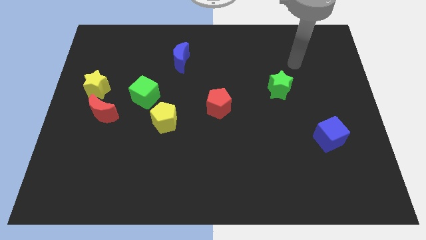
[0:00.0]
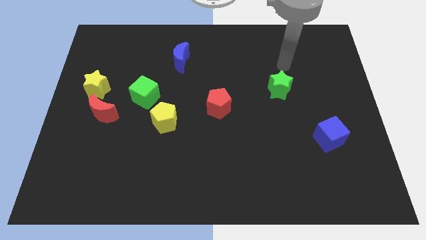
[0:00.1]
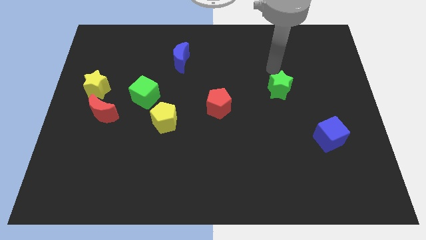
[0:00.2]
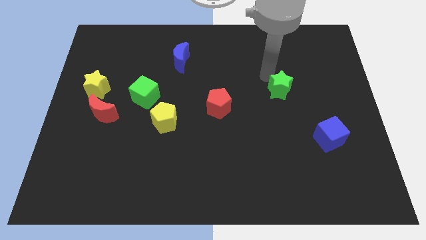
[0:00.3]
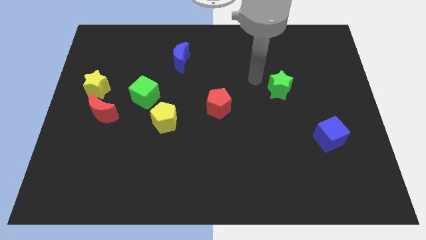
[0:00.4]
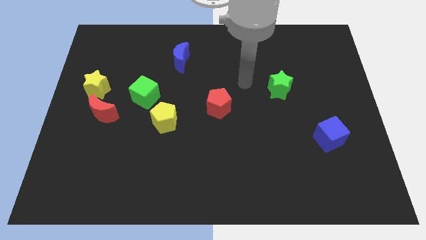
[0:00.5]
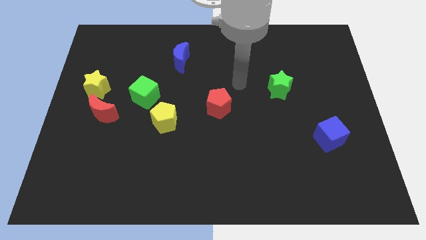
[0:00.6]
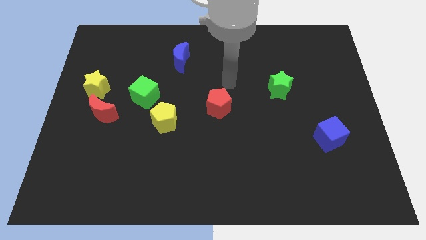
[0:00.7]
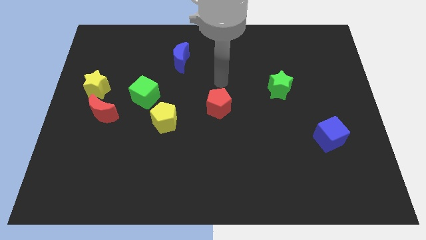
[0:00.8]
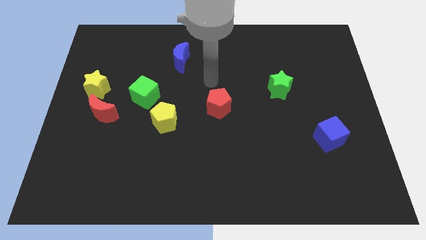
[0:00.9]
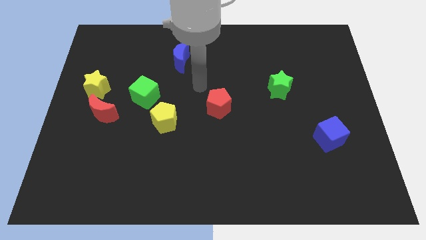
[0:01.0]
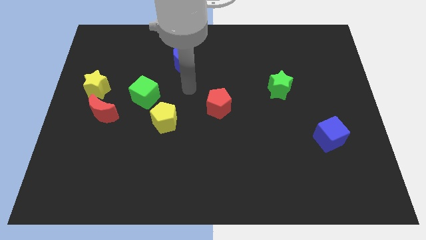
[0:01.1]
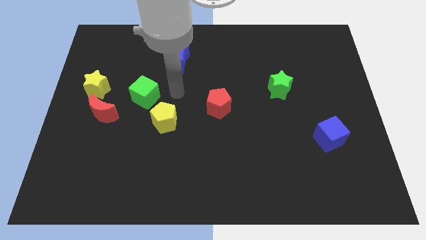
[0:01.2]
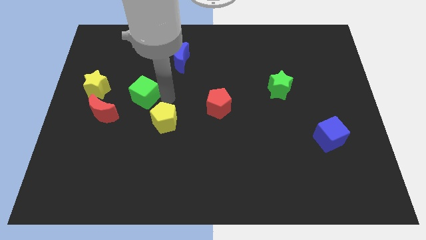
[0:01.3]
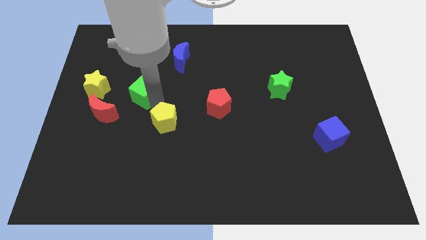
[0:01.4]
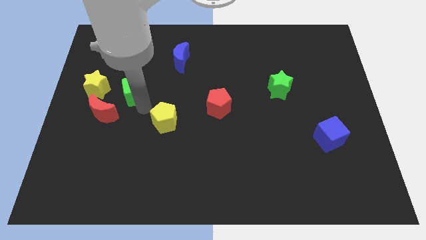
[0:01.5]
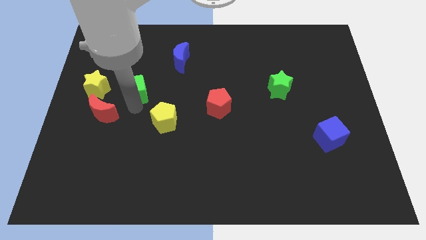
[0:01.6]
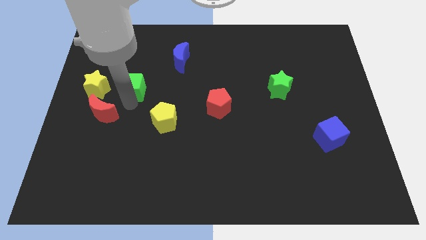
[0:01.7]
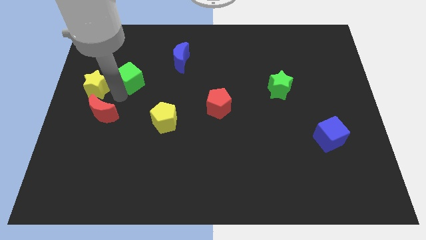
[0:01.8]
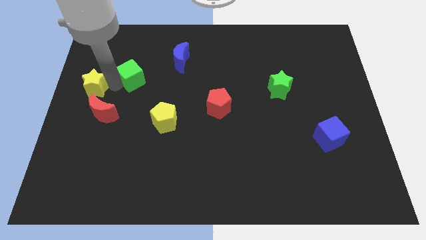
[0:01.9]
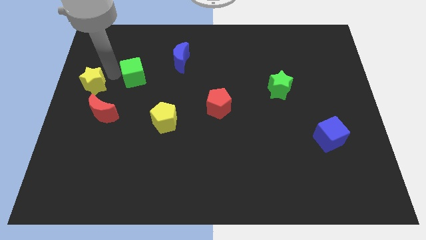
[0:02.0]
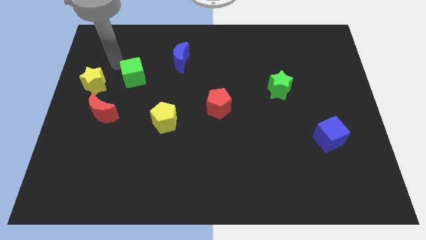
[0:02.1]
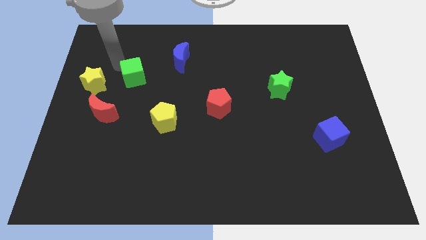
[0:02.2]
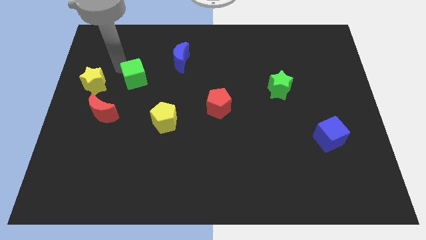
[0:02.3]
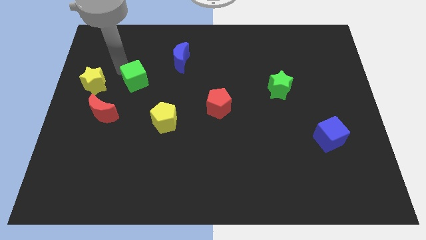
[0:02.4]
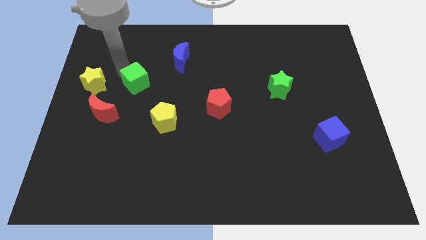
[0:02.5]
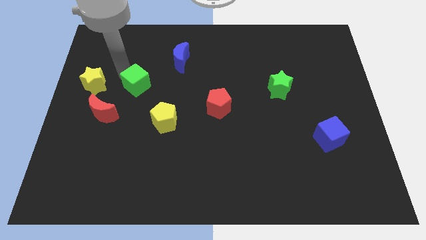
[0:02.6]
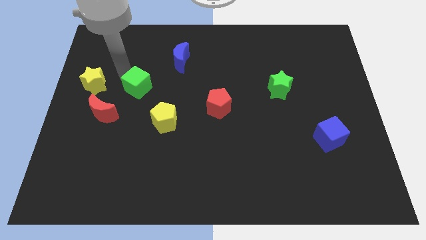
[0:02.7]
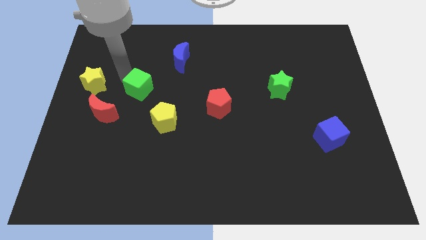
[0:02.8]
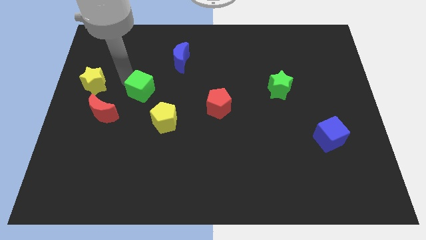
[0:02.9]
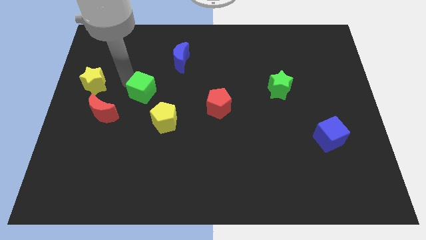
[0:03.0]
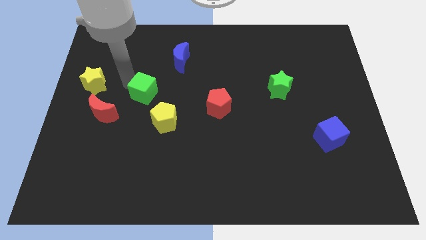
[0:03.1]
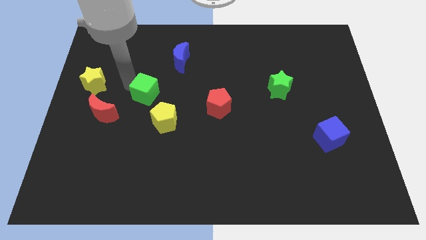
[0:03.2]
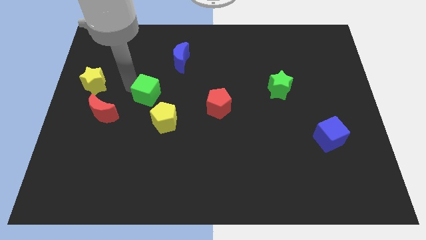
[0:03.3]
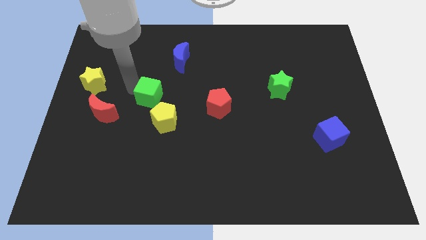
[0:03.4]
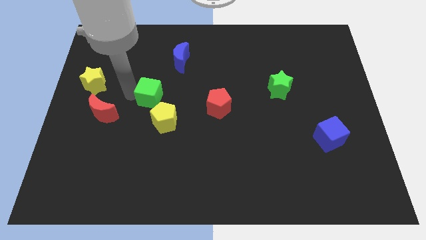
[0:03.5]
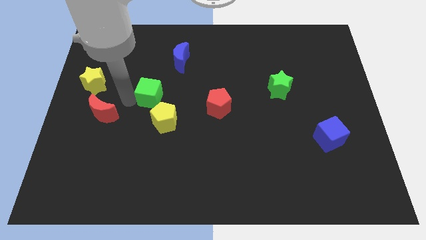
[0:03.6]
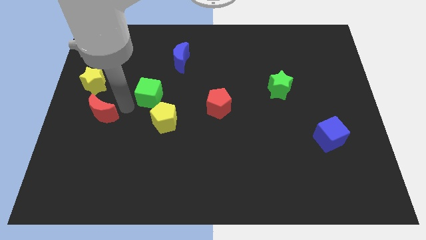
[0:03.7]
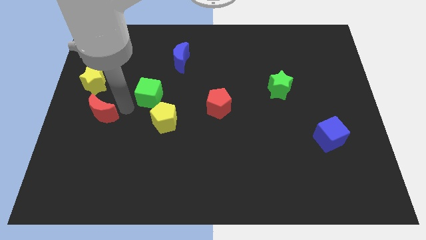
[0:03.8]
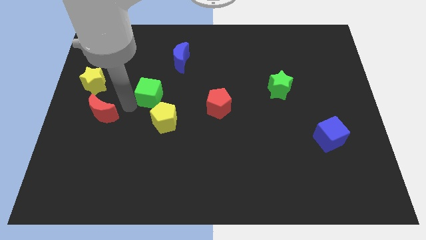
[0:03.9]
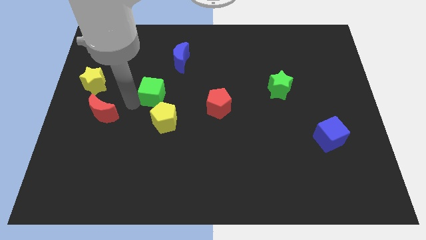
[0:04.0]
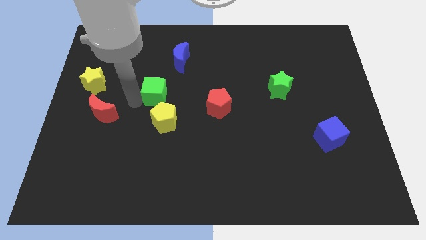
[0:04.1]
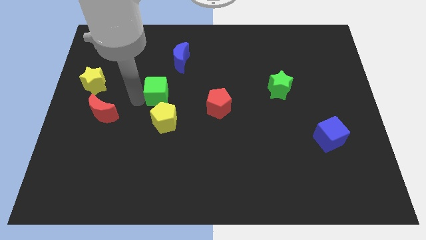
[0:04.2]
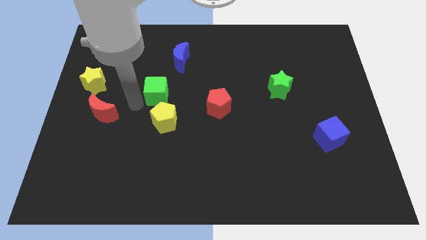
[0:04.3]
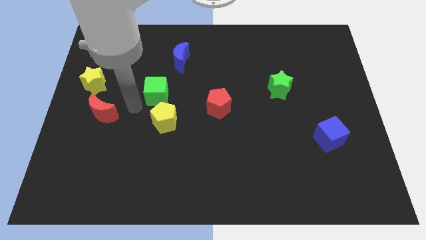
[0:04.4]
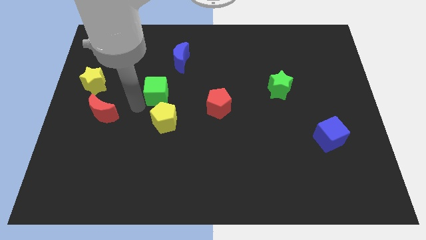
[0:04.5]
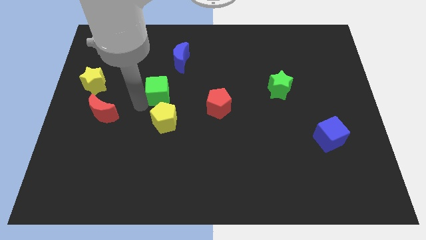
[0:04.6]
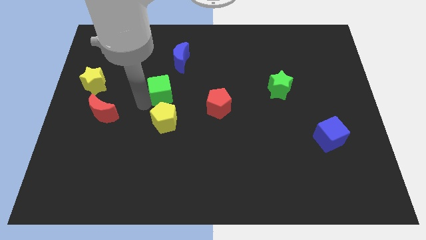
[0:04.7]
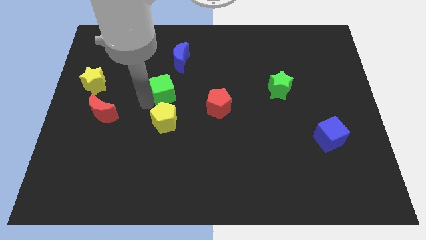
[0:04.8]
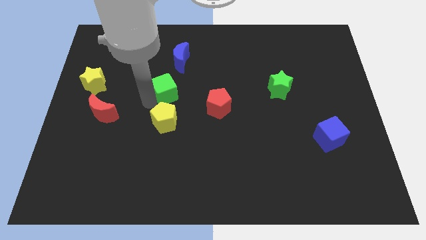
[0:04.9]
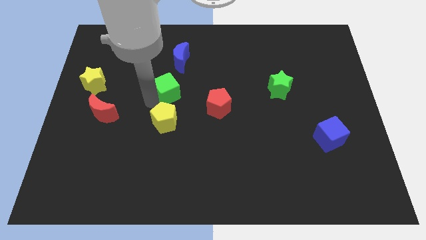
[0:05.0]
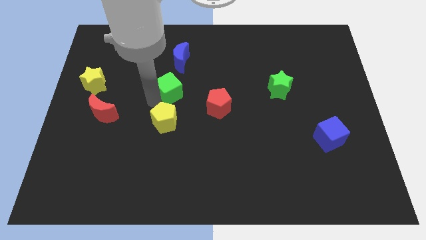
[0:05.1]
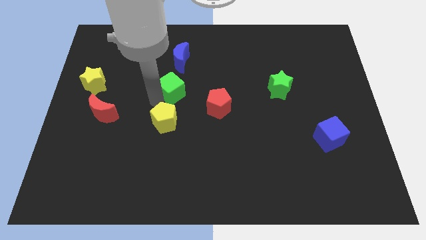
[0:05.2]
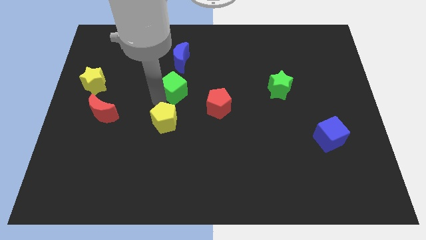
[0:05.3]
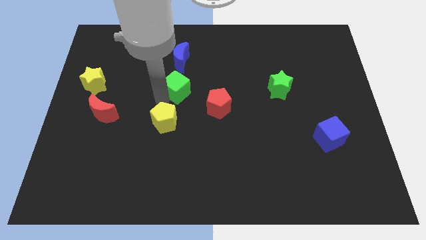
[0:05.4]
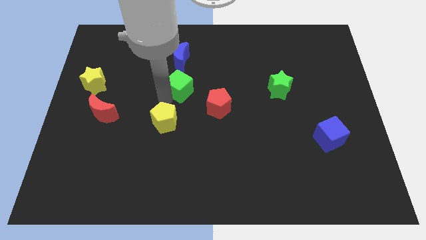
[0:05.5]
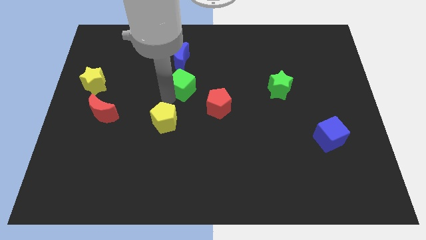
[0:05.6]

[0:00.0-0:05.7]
slide the green cube up and right a little

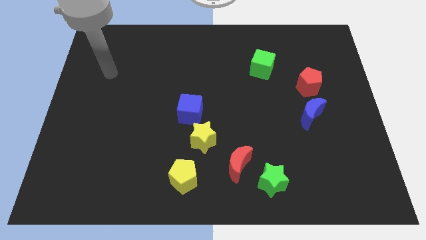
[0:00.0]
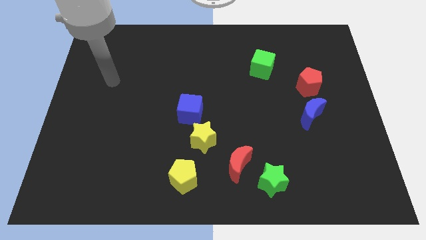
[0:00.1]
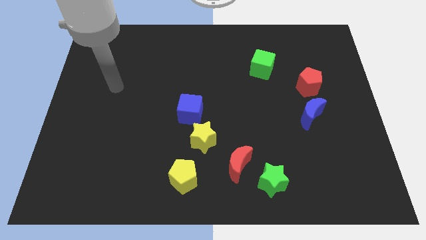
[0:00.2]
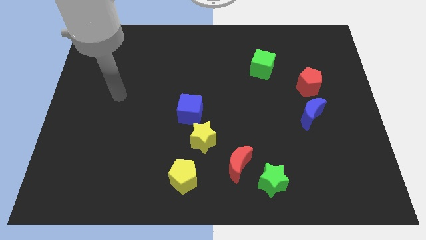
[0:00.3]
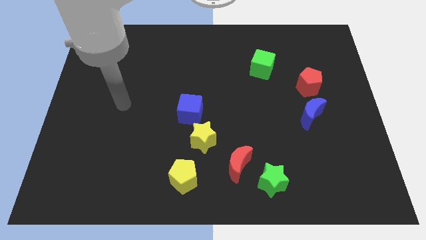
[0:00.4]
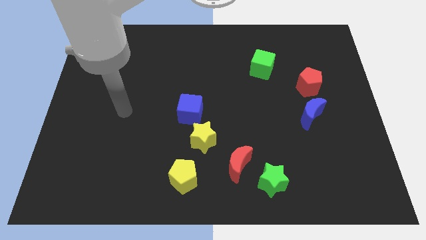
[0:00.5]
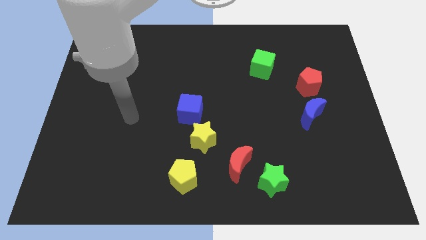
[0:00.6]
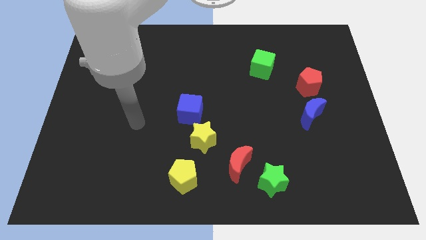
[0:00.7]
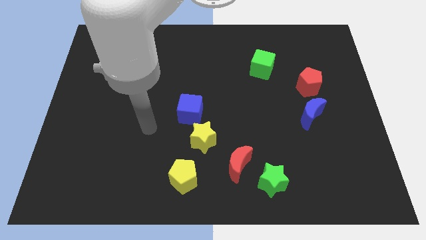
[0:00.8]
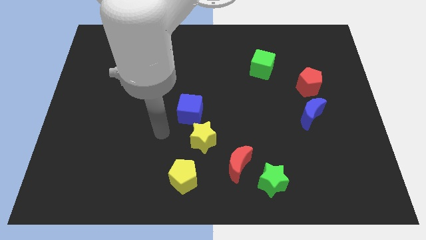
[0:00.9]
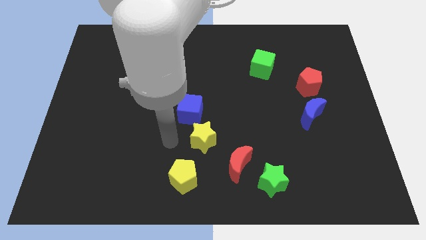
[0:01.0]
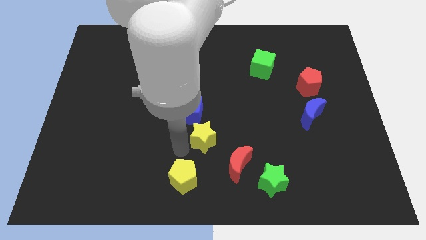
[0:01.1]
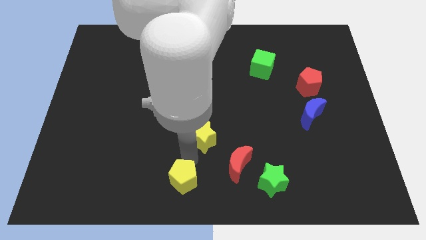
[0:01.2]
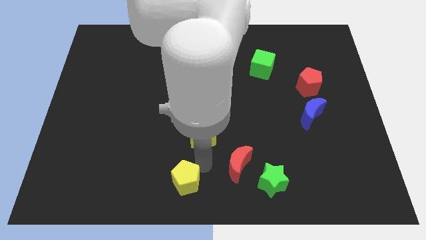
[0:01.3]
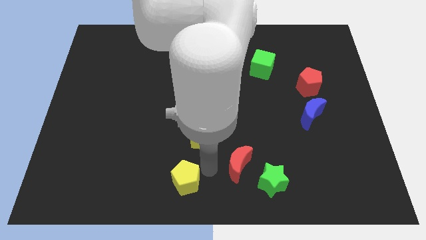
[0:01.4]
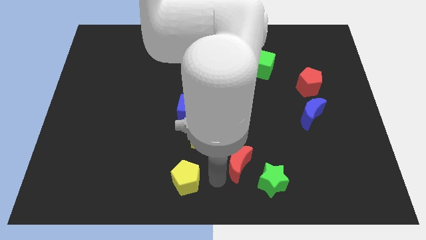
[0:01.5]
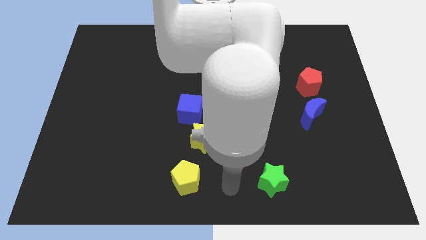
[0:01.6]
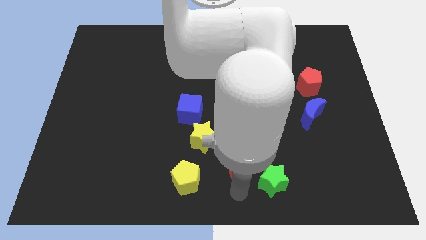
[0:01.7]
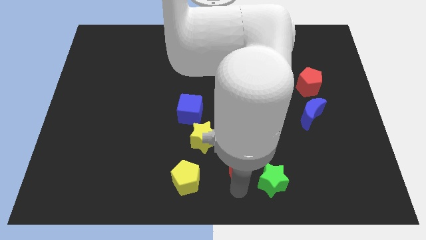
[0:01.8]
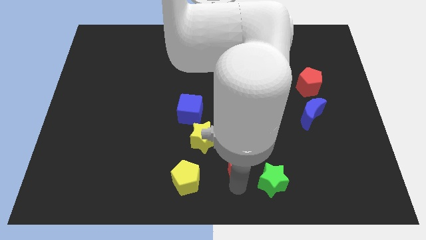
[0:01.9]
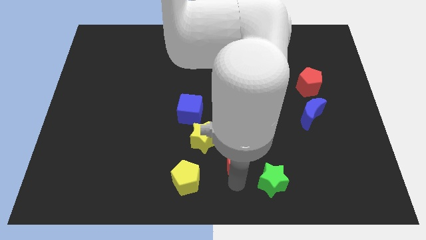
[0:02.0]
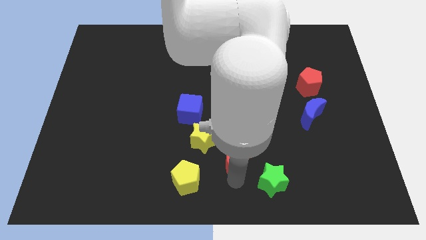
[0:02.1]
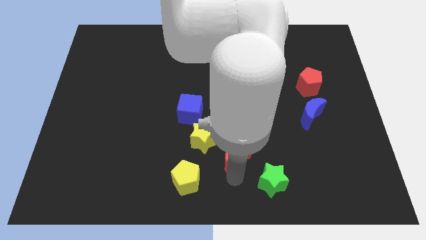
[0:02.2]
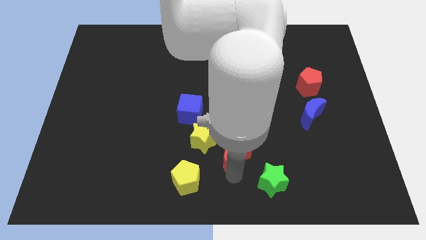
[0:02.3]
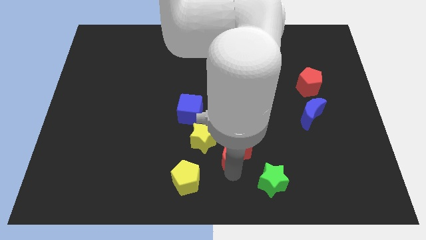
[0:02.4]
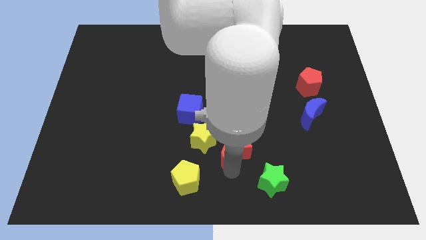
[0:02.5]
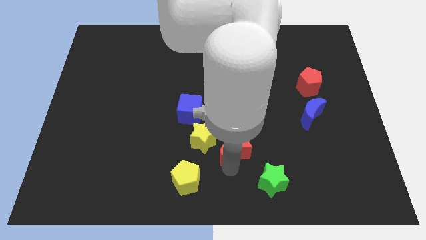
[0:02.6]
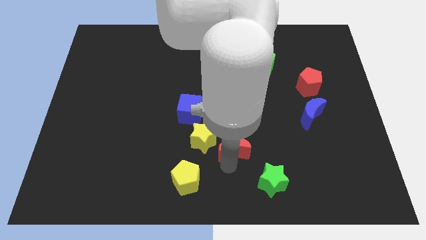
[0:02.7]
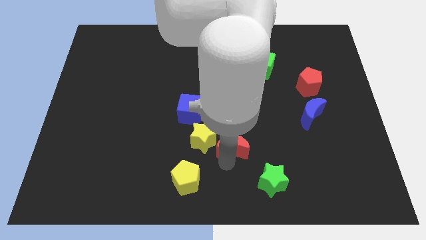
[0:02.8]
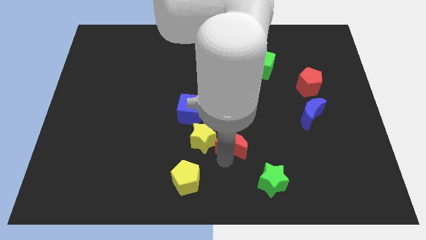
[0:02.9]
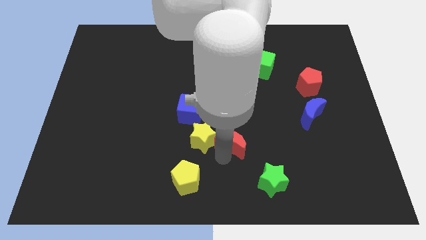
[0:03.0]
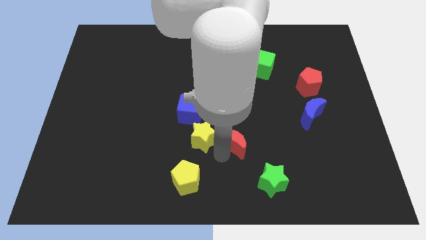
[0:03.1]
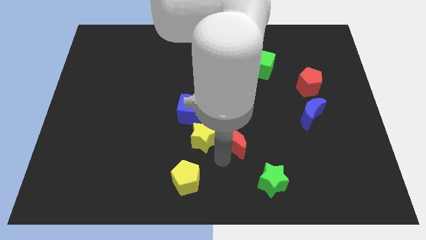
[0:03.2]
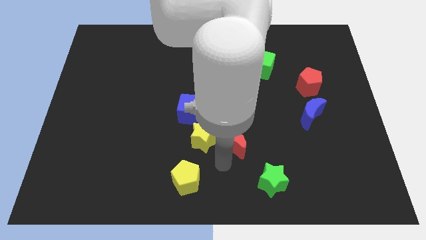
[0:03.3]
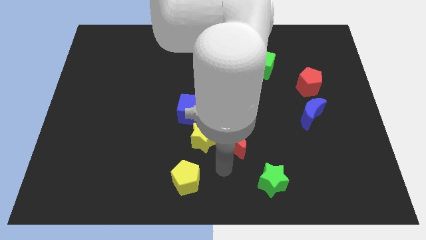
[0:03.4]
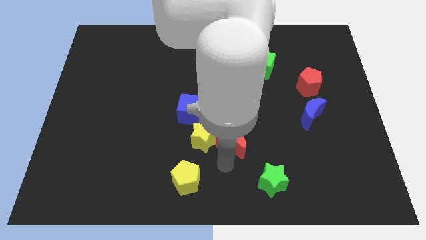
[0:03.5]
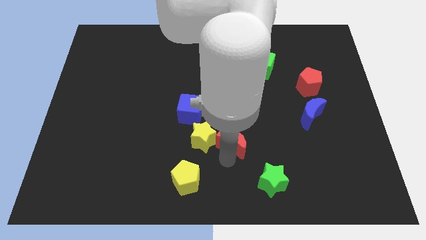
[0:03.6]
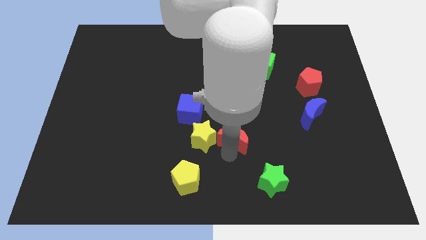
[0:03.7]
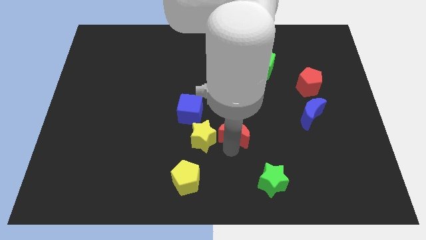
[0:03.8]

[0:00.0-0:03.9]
move the red moon up a bit
